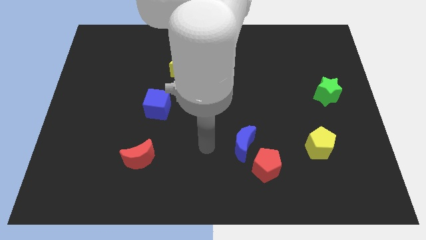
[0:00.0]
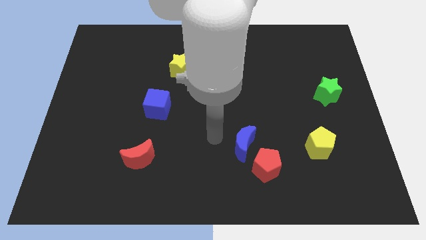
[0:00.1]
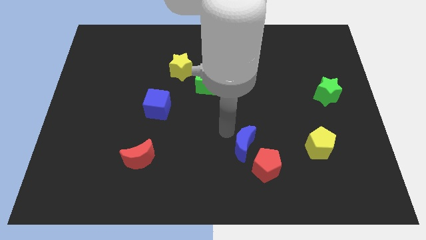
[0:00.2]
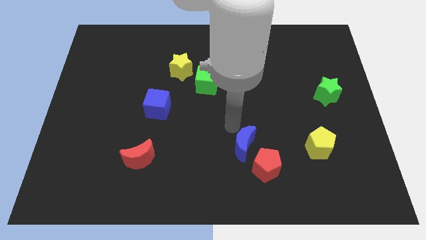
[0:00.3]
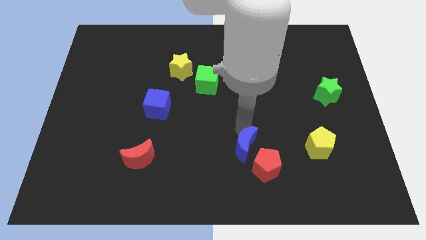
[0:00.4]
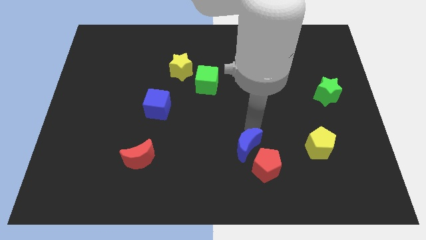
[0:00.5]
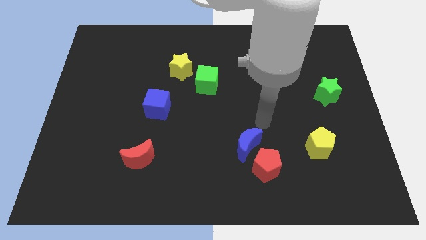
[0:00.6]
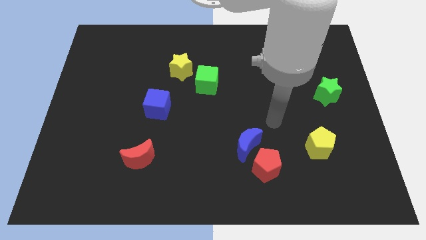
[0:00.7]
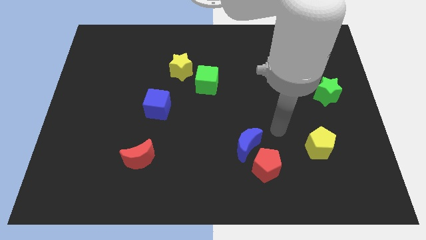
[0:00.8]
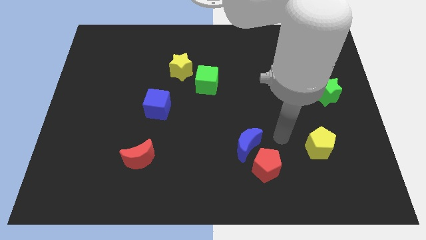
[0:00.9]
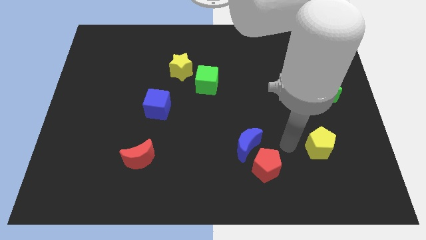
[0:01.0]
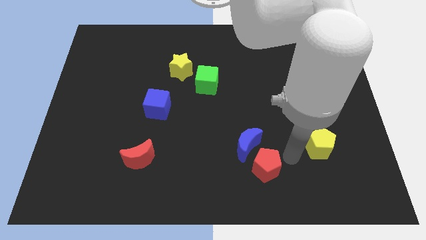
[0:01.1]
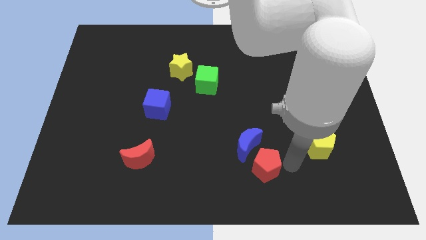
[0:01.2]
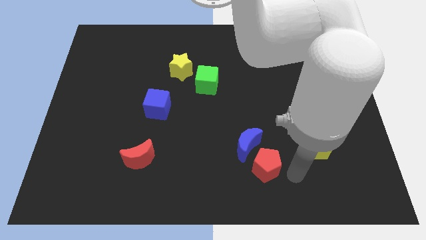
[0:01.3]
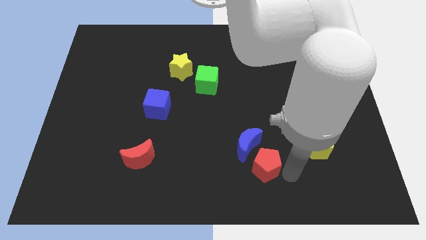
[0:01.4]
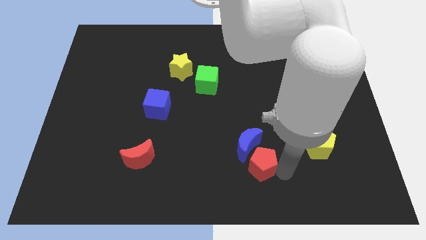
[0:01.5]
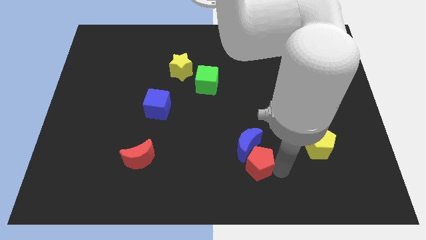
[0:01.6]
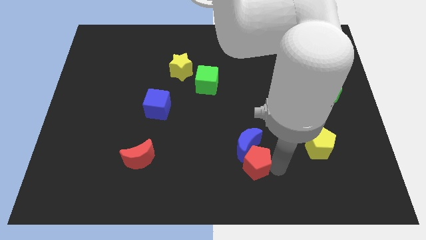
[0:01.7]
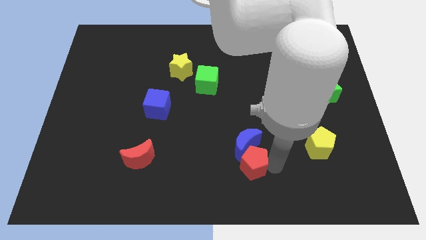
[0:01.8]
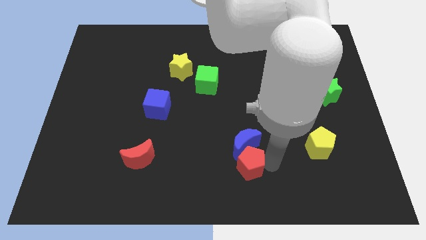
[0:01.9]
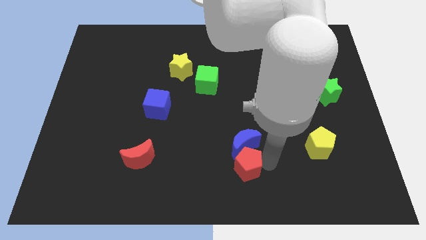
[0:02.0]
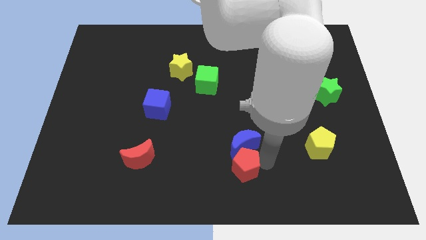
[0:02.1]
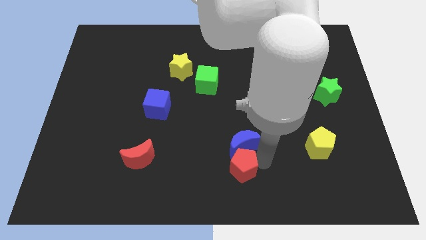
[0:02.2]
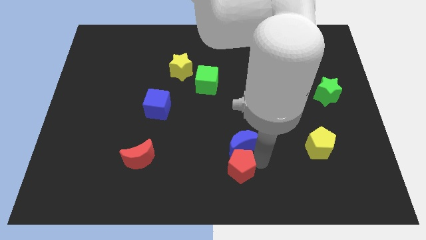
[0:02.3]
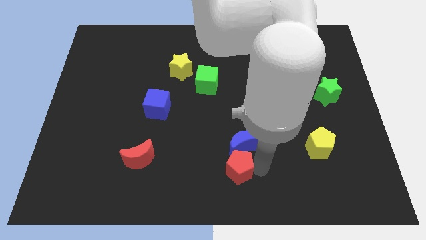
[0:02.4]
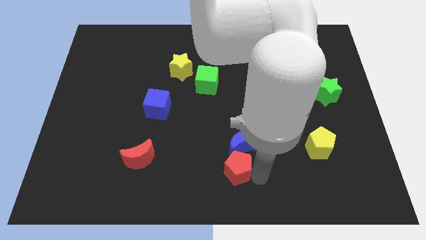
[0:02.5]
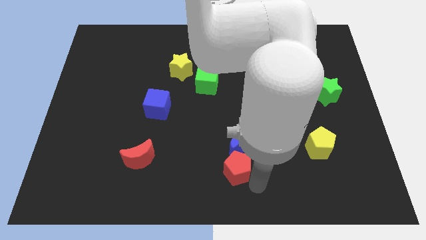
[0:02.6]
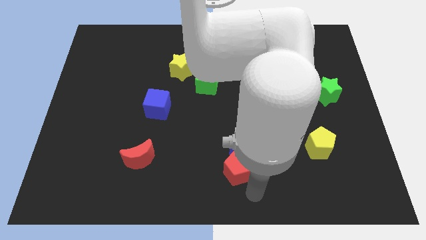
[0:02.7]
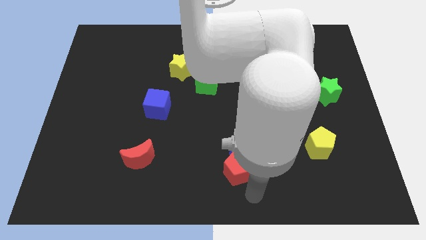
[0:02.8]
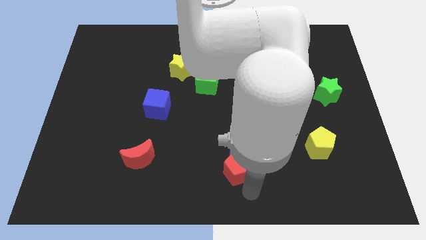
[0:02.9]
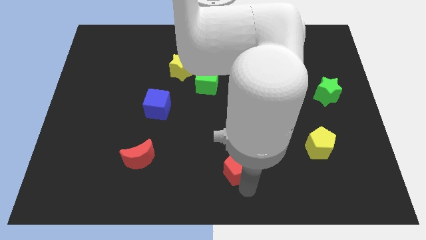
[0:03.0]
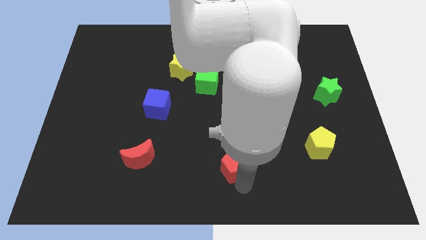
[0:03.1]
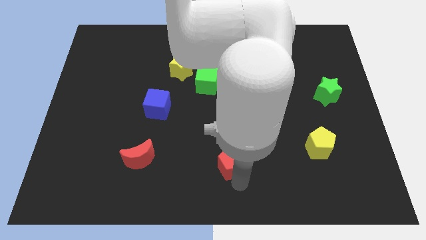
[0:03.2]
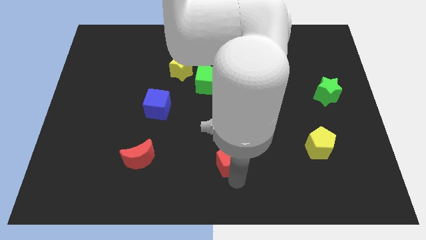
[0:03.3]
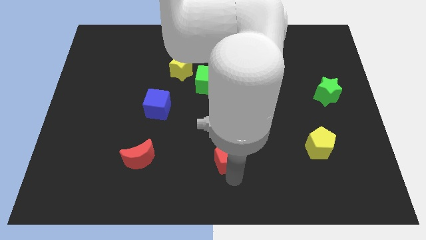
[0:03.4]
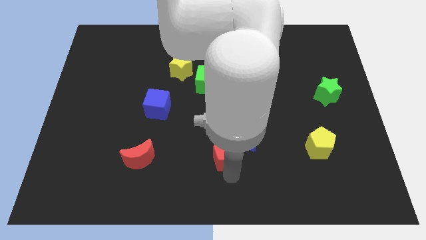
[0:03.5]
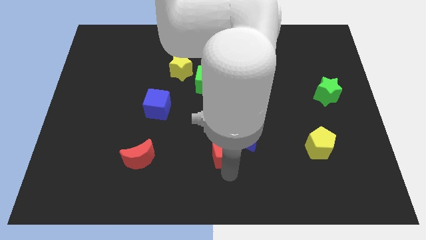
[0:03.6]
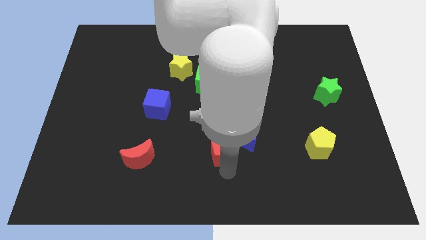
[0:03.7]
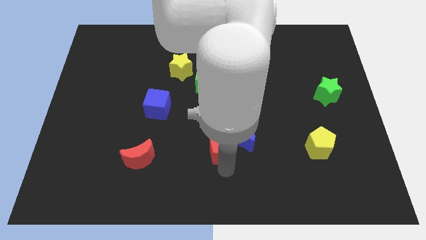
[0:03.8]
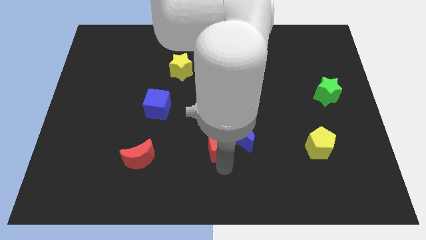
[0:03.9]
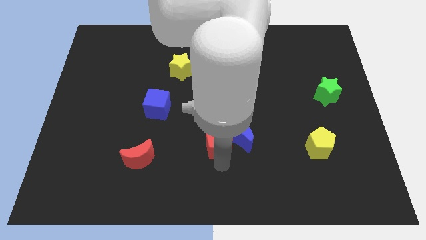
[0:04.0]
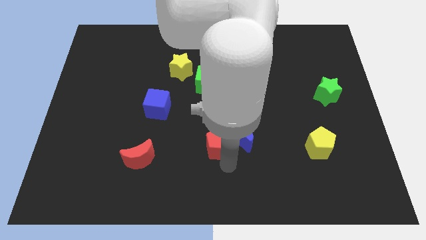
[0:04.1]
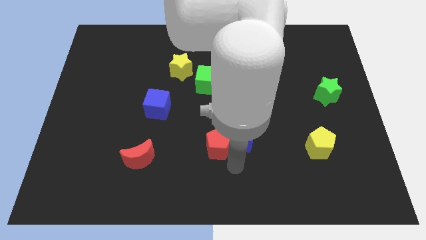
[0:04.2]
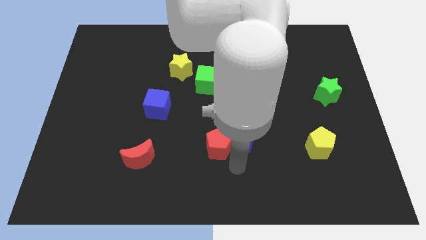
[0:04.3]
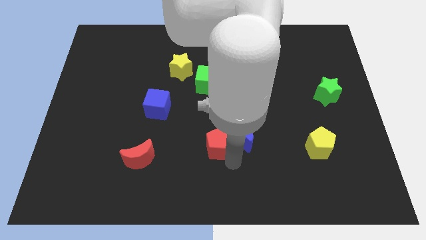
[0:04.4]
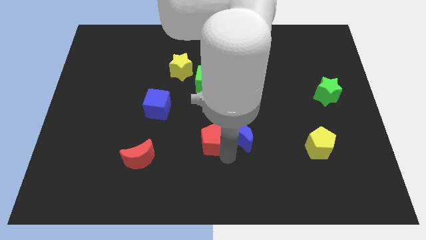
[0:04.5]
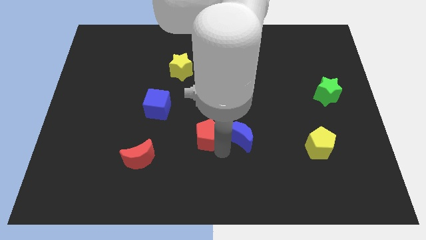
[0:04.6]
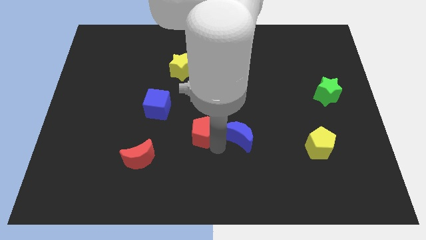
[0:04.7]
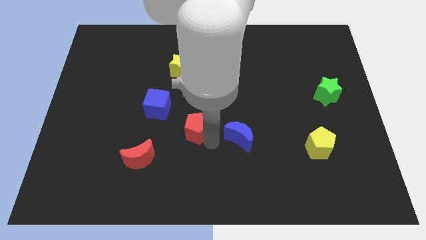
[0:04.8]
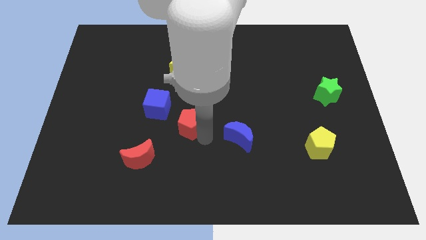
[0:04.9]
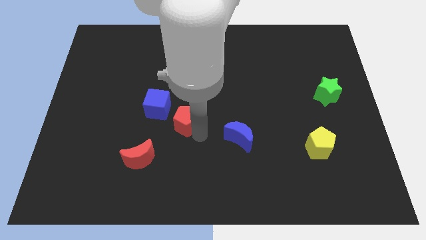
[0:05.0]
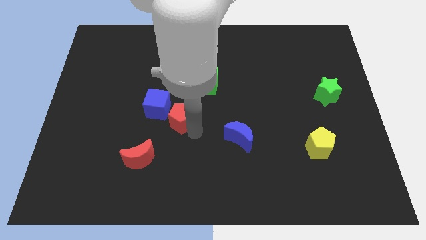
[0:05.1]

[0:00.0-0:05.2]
move the red pentagon upwards and to the left

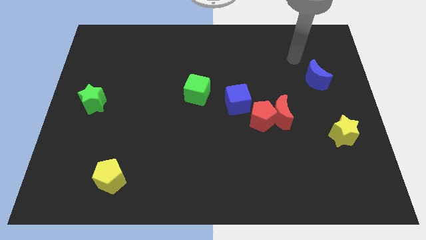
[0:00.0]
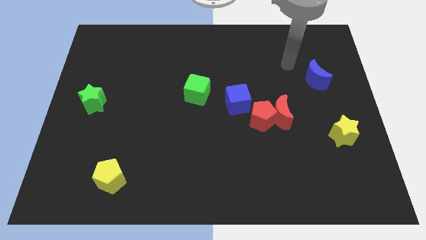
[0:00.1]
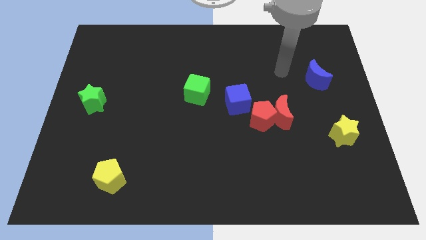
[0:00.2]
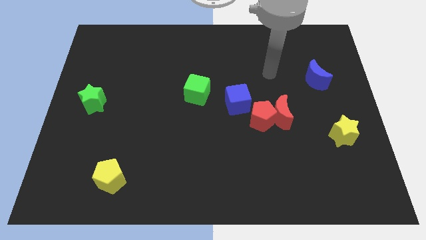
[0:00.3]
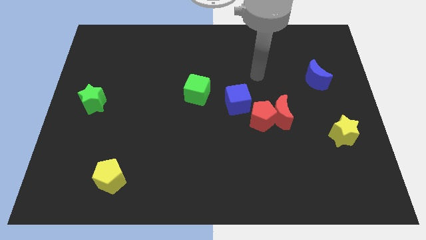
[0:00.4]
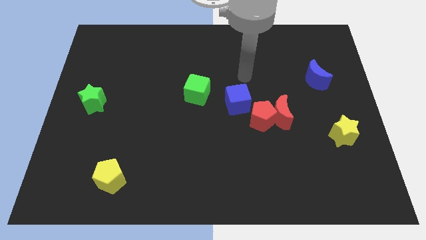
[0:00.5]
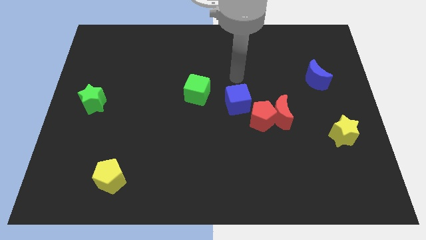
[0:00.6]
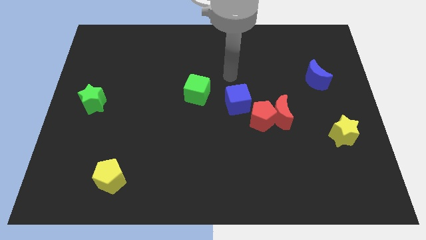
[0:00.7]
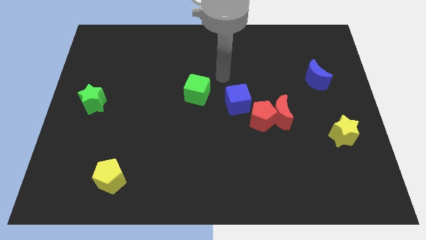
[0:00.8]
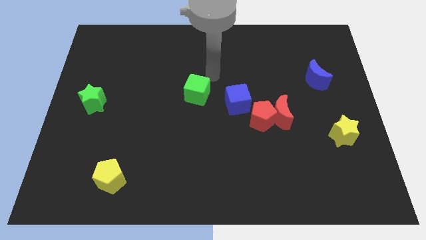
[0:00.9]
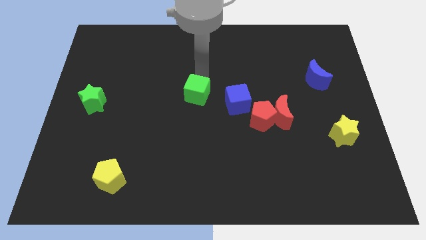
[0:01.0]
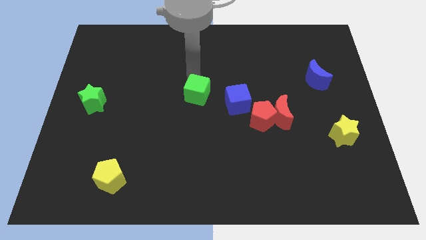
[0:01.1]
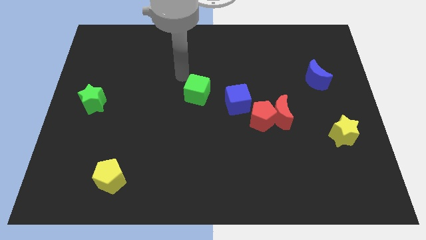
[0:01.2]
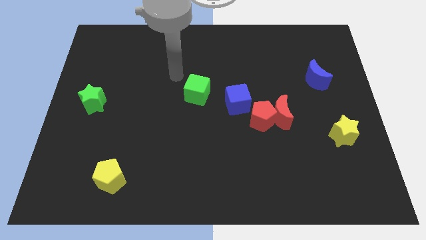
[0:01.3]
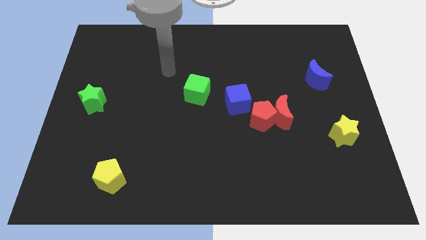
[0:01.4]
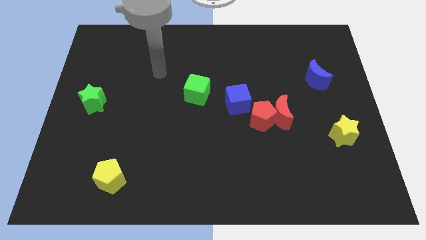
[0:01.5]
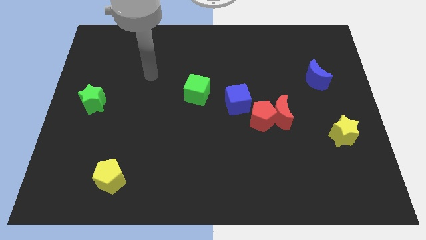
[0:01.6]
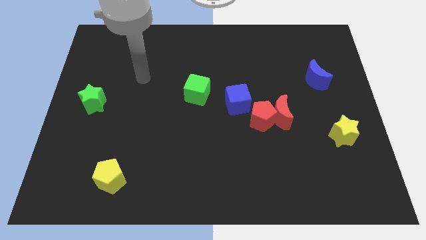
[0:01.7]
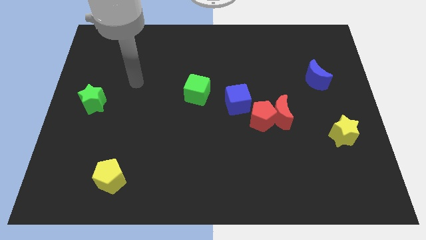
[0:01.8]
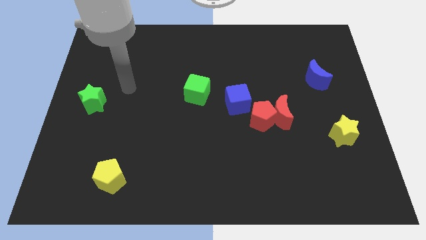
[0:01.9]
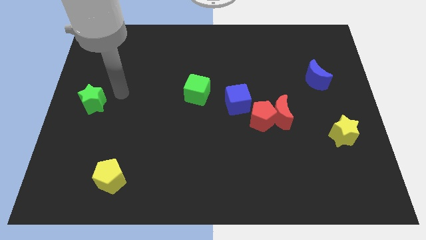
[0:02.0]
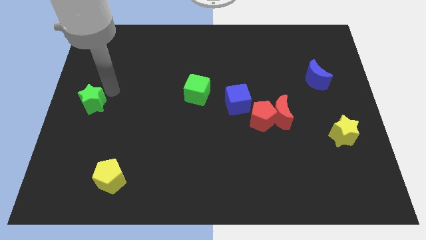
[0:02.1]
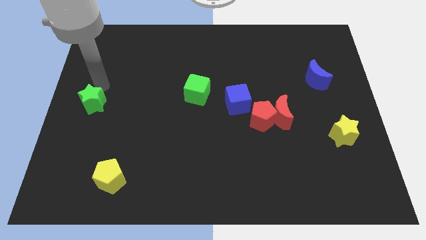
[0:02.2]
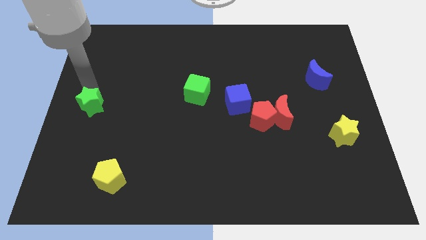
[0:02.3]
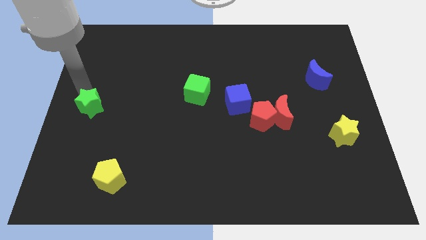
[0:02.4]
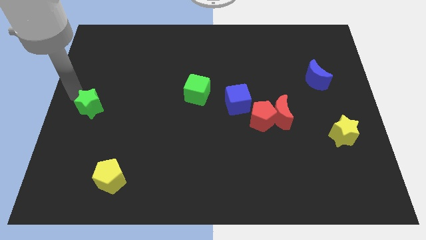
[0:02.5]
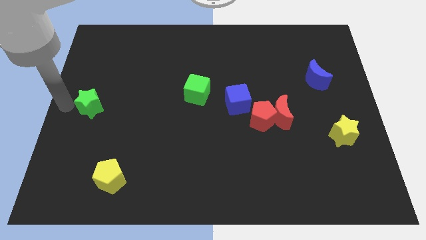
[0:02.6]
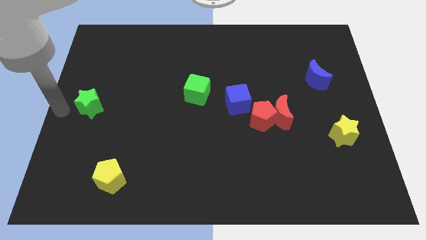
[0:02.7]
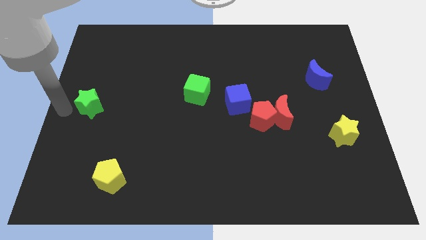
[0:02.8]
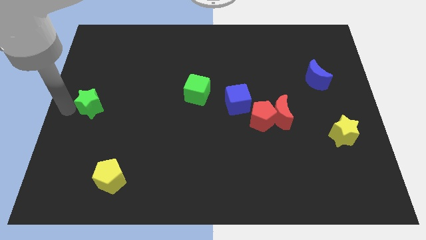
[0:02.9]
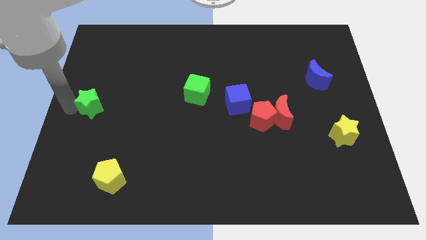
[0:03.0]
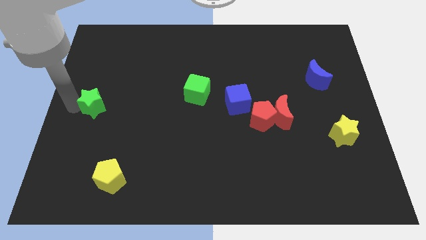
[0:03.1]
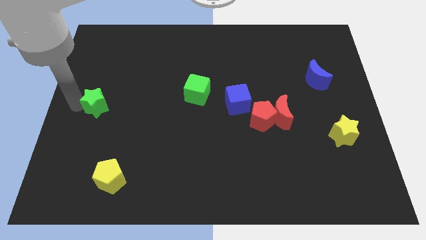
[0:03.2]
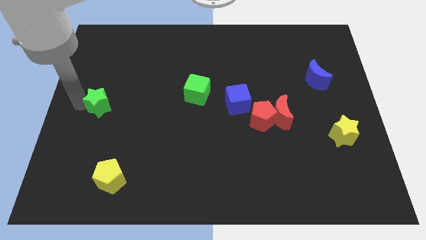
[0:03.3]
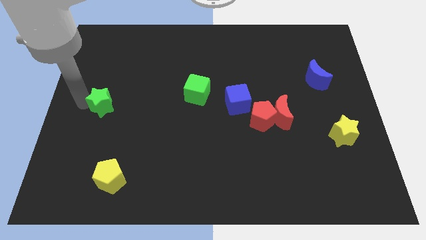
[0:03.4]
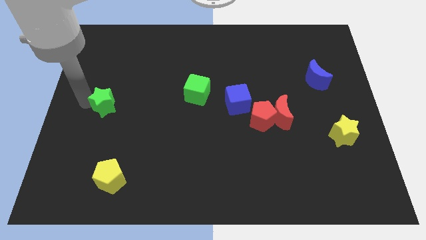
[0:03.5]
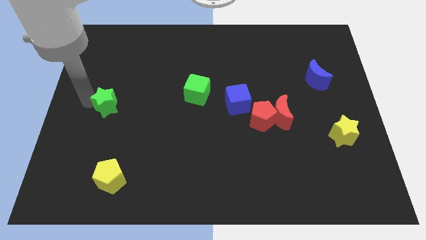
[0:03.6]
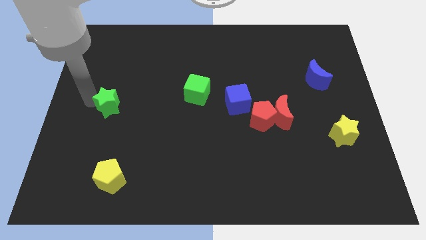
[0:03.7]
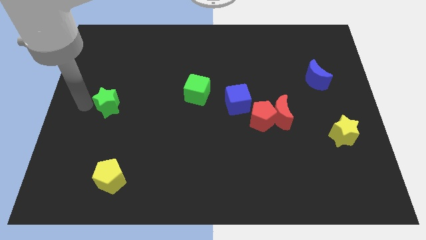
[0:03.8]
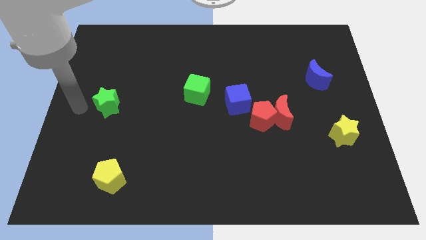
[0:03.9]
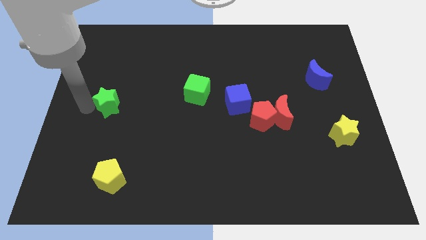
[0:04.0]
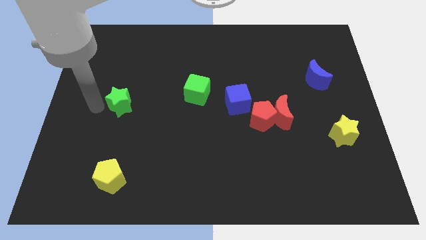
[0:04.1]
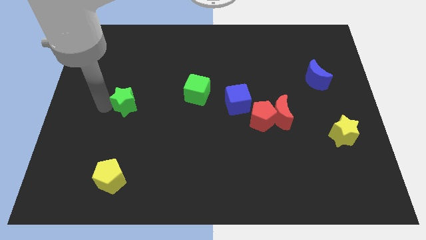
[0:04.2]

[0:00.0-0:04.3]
move the green star somewhat right
